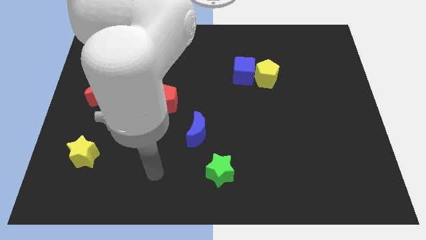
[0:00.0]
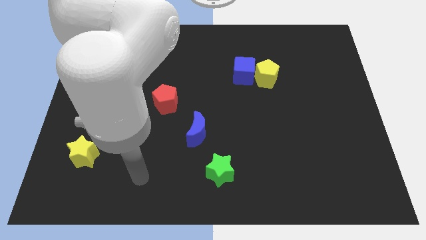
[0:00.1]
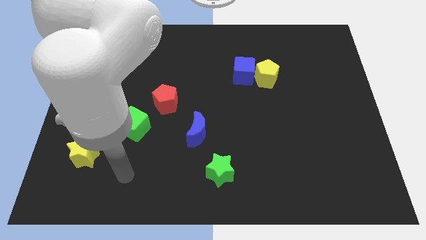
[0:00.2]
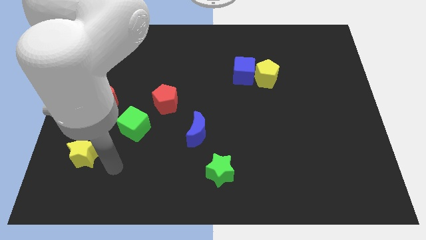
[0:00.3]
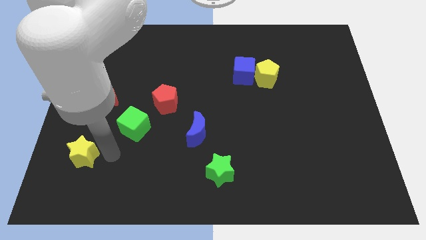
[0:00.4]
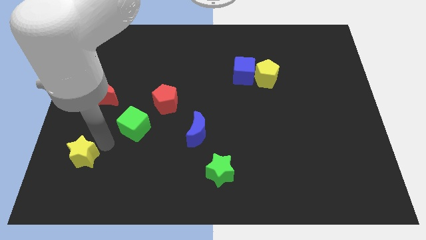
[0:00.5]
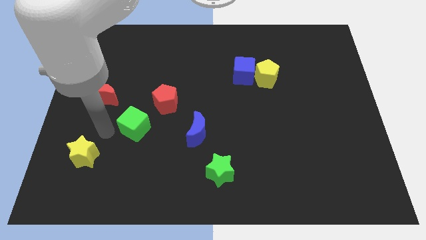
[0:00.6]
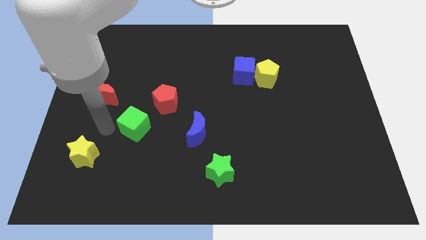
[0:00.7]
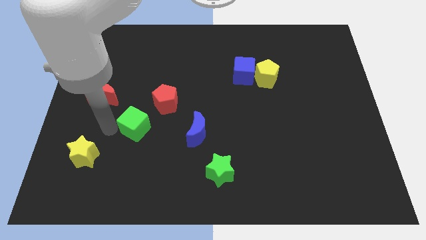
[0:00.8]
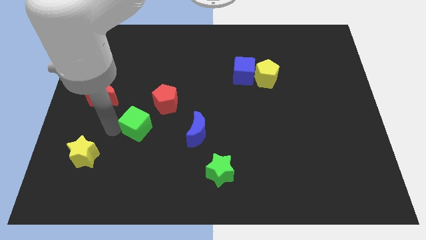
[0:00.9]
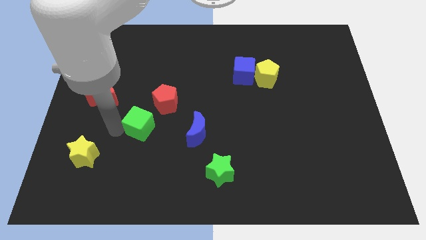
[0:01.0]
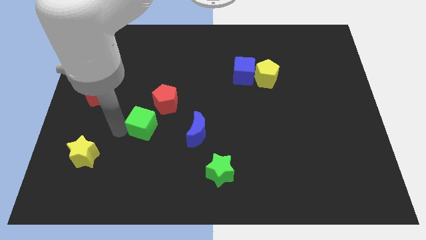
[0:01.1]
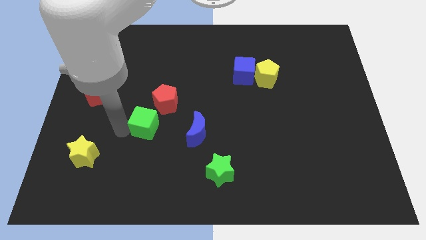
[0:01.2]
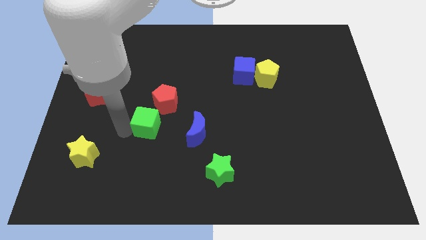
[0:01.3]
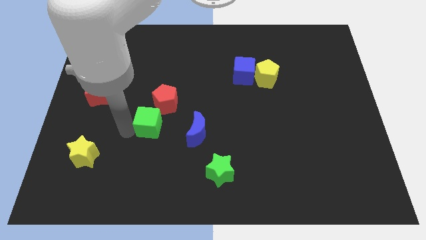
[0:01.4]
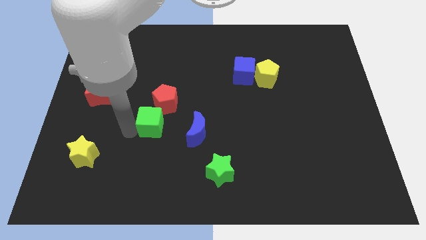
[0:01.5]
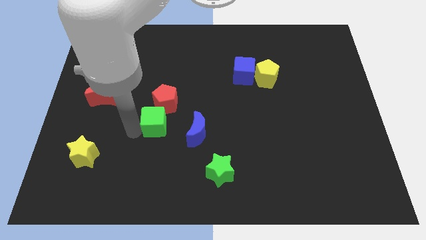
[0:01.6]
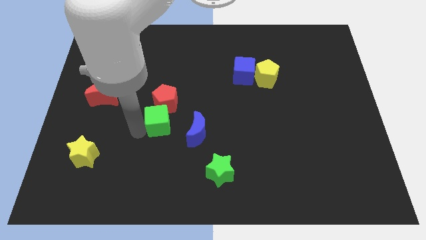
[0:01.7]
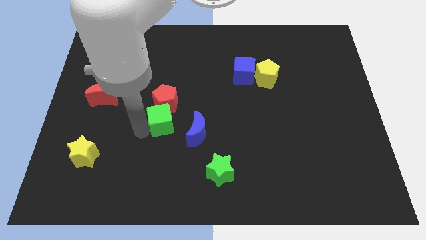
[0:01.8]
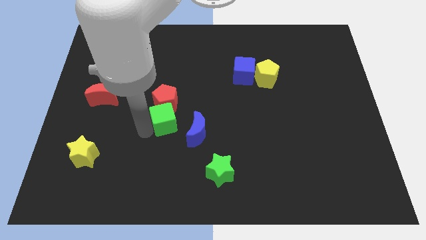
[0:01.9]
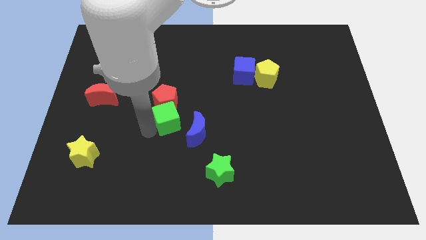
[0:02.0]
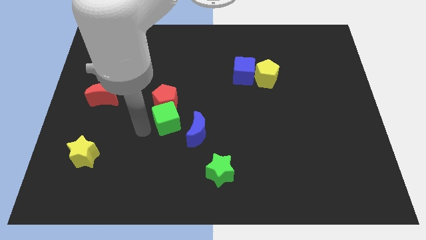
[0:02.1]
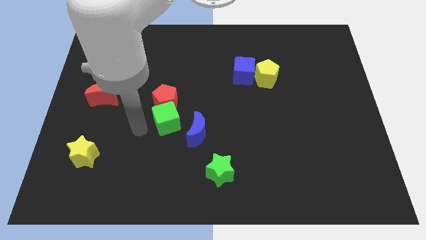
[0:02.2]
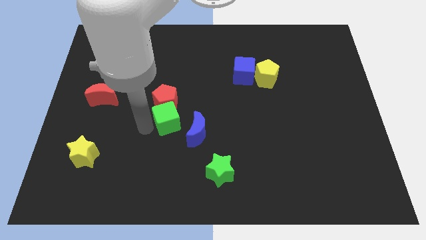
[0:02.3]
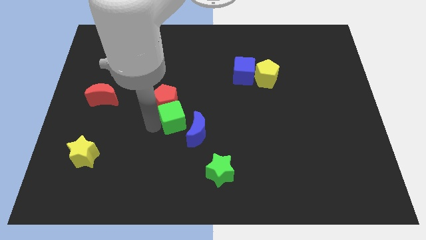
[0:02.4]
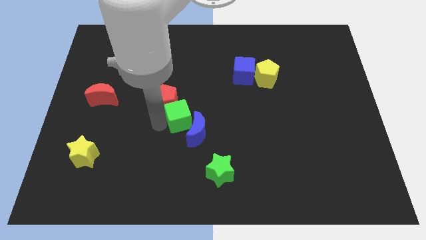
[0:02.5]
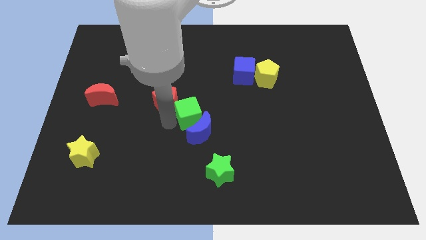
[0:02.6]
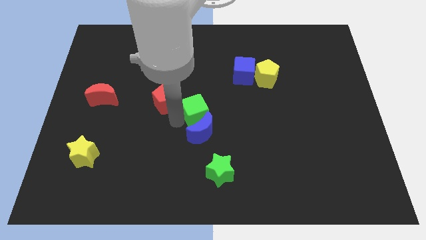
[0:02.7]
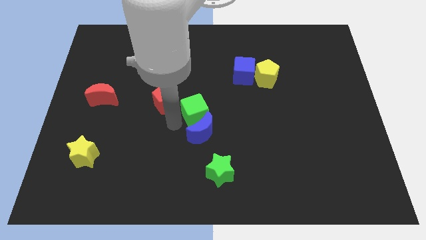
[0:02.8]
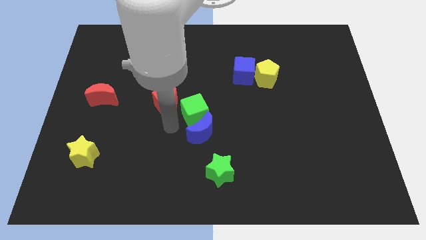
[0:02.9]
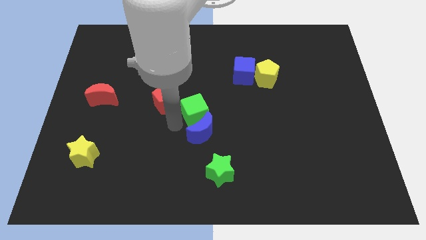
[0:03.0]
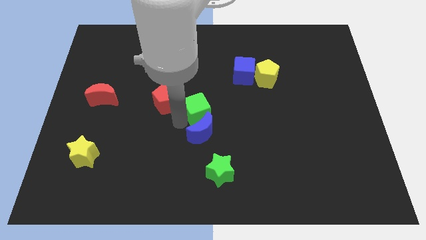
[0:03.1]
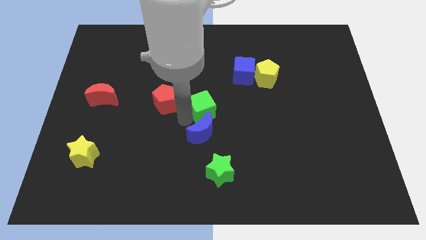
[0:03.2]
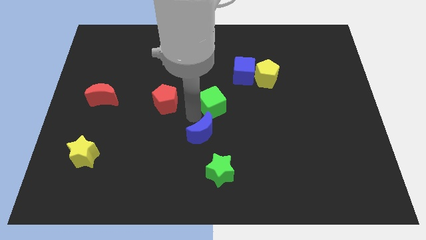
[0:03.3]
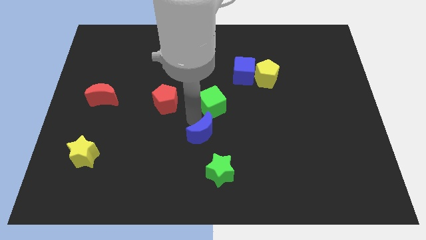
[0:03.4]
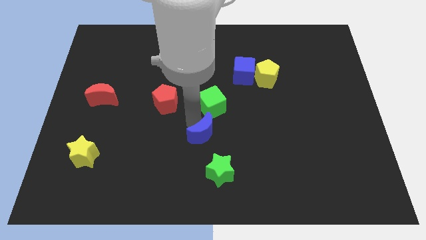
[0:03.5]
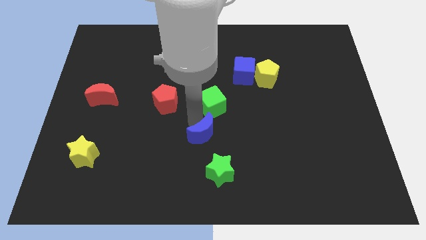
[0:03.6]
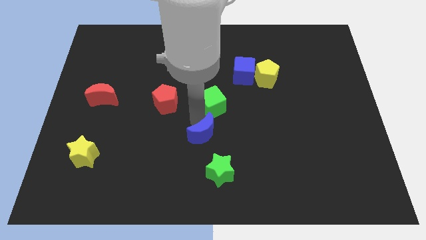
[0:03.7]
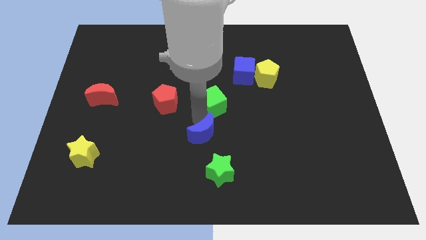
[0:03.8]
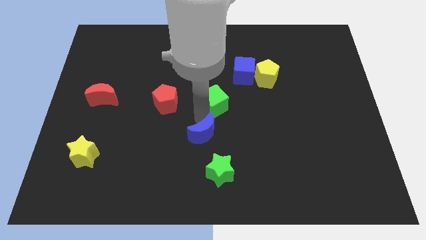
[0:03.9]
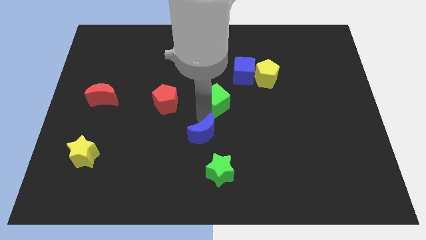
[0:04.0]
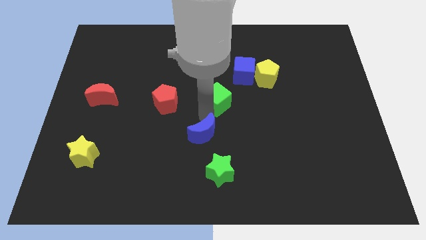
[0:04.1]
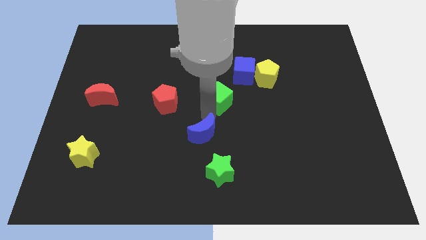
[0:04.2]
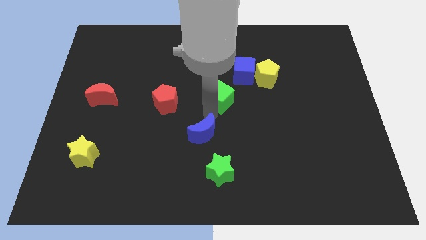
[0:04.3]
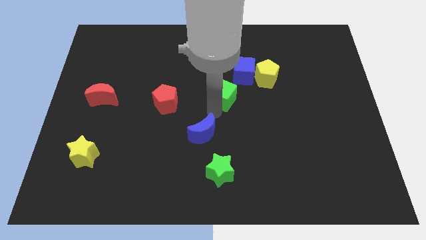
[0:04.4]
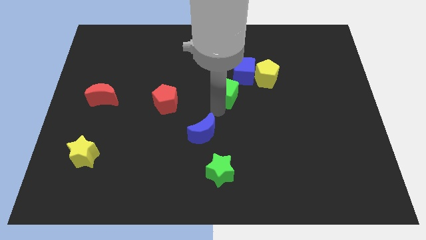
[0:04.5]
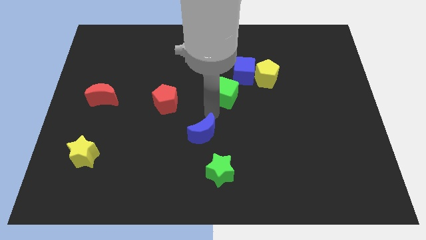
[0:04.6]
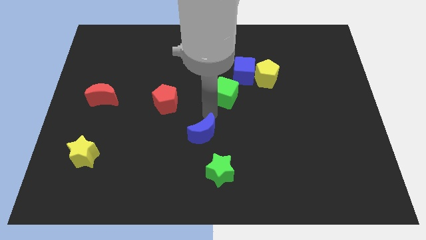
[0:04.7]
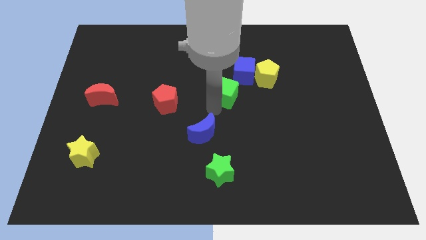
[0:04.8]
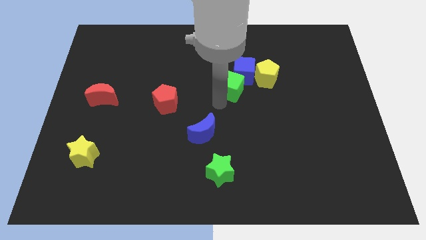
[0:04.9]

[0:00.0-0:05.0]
slide the green cube close to the blue cube

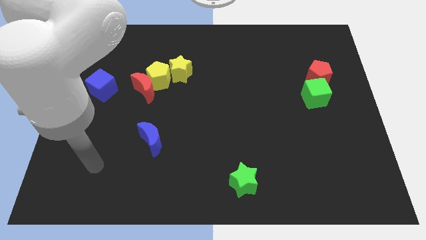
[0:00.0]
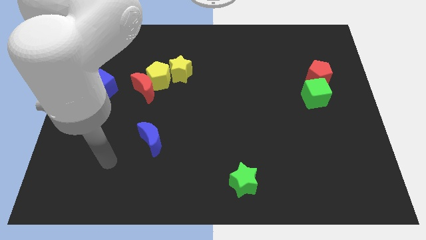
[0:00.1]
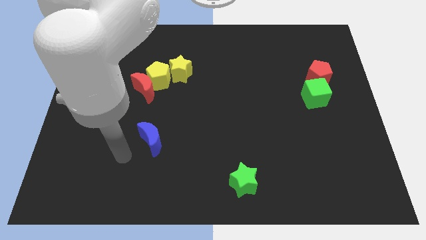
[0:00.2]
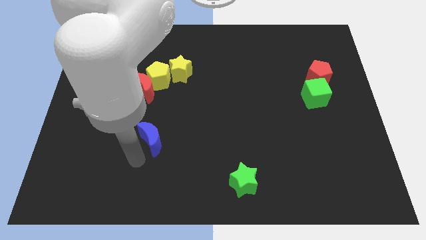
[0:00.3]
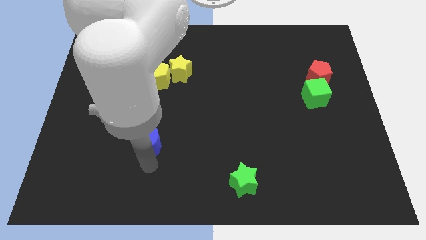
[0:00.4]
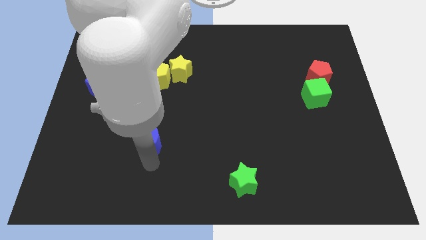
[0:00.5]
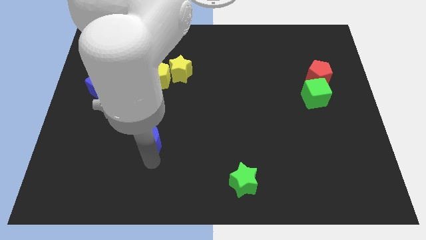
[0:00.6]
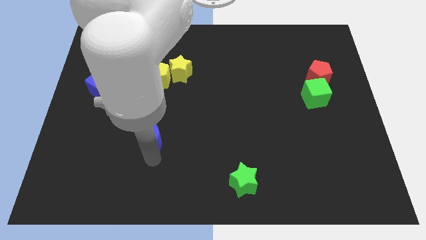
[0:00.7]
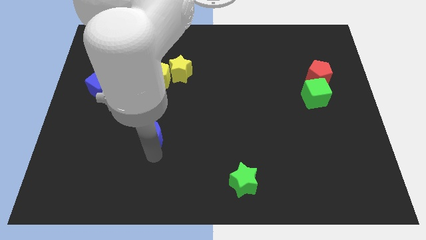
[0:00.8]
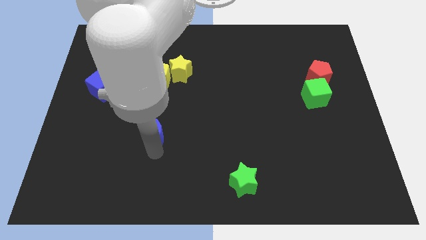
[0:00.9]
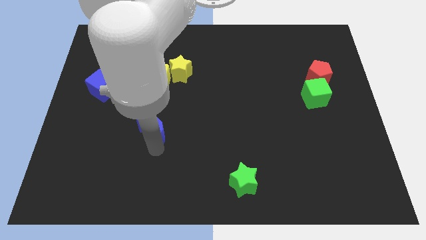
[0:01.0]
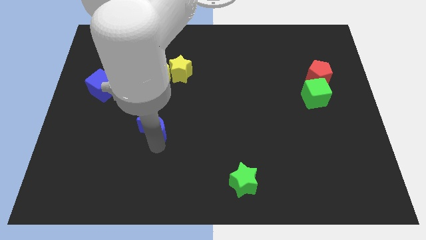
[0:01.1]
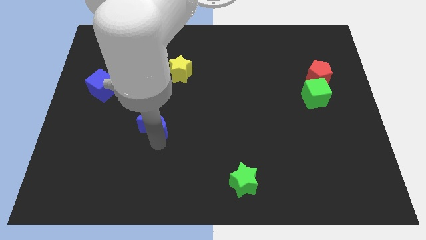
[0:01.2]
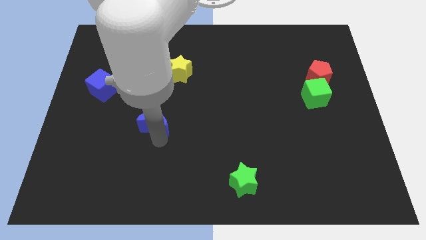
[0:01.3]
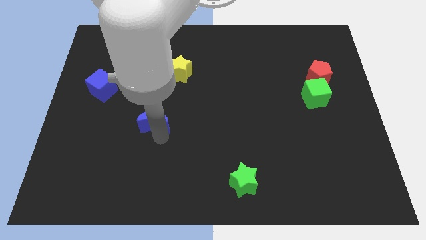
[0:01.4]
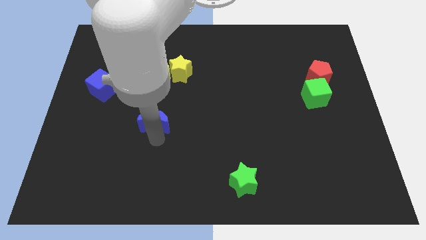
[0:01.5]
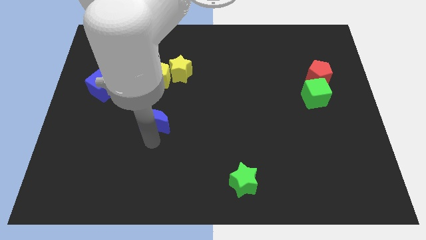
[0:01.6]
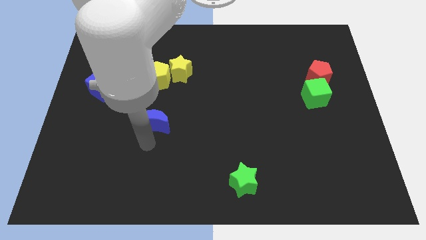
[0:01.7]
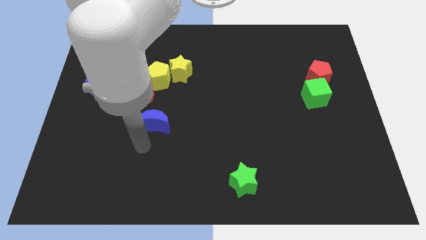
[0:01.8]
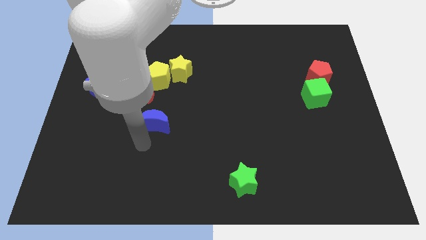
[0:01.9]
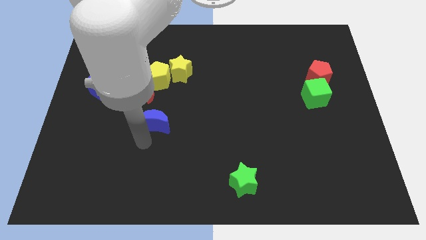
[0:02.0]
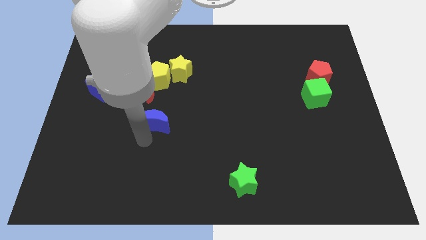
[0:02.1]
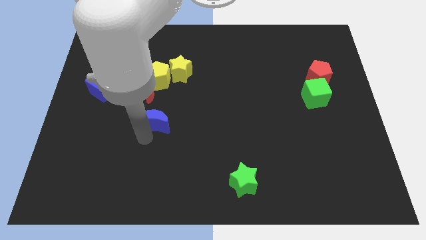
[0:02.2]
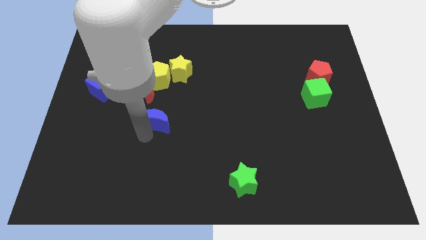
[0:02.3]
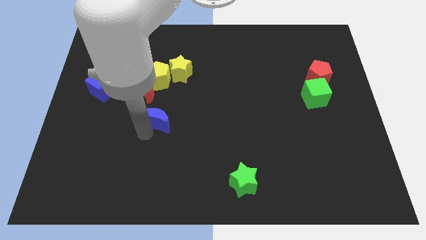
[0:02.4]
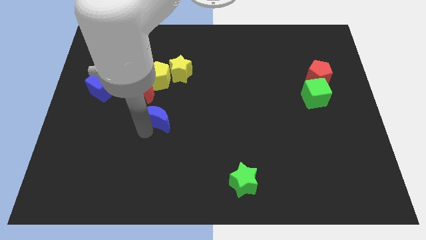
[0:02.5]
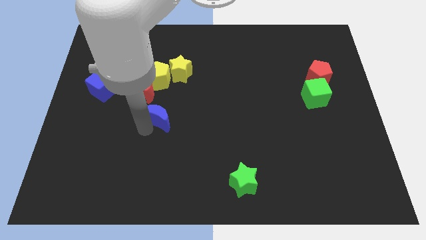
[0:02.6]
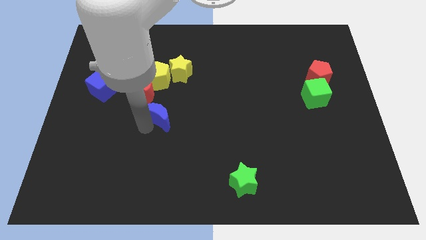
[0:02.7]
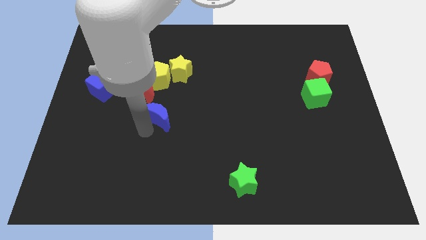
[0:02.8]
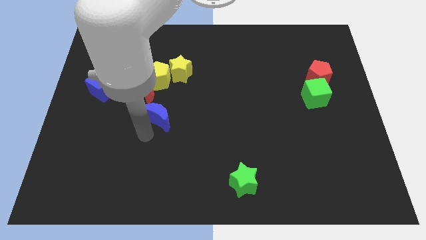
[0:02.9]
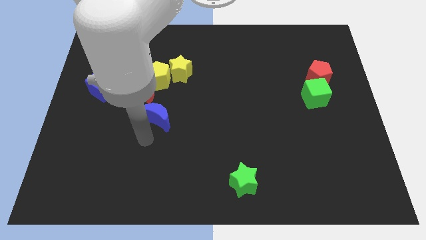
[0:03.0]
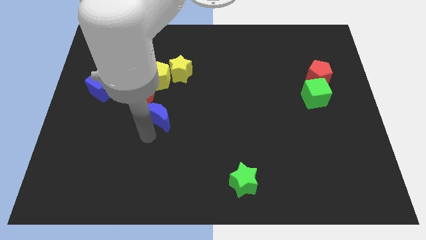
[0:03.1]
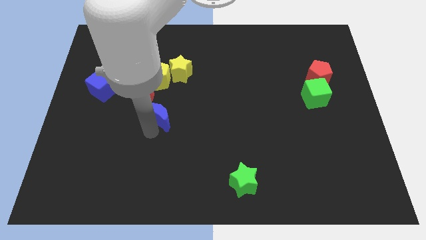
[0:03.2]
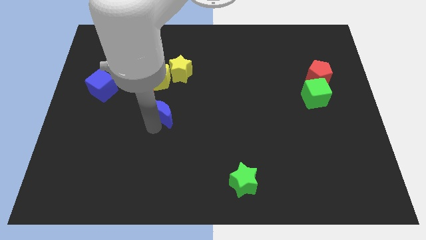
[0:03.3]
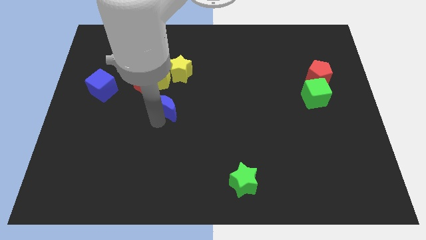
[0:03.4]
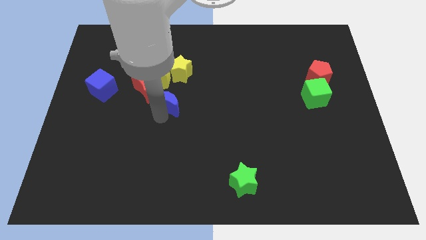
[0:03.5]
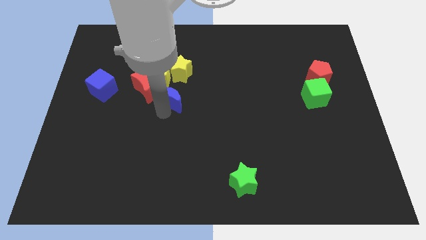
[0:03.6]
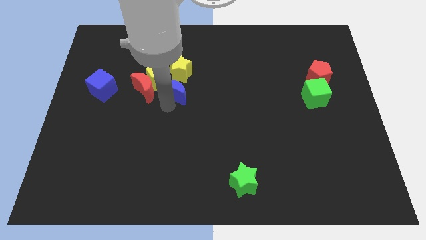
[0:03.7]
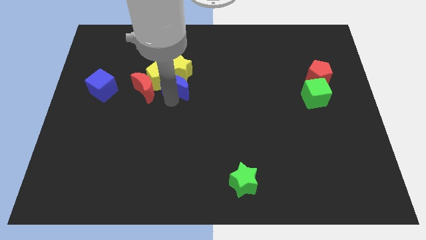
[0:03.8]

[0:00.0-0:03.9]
slide the blue moon to the yellow star
